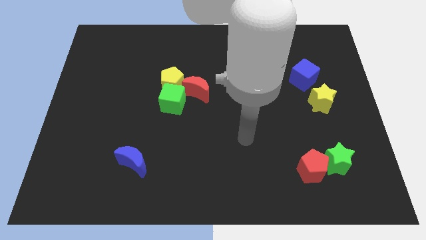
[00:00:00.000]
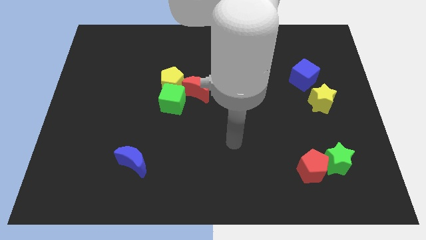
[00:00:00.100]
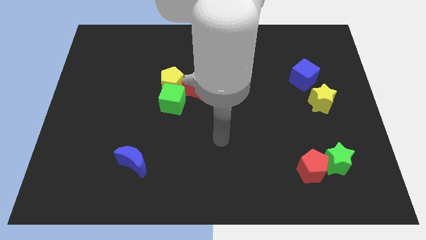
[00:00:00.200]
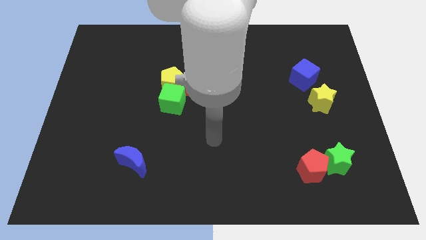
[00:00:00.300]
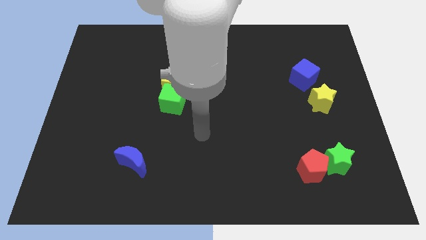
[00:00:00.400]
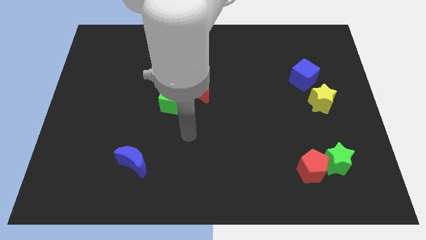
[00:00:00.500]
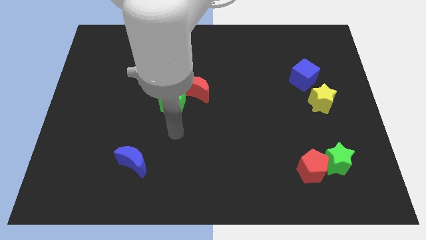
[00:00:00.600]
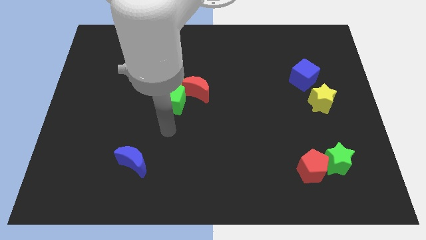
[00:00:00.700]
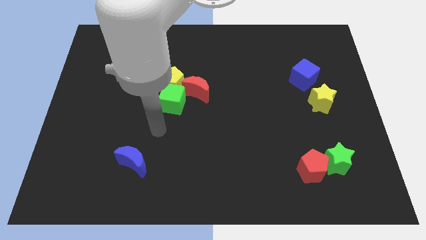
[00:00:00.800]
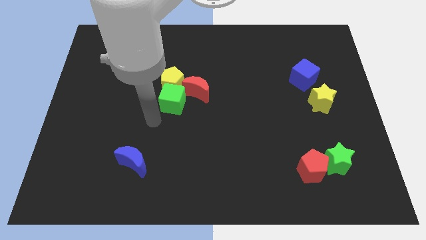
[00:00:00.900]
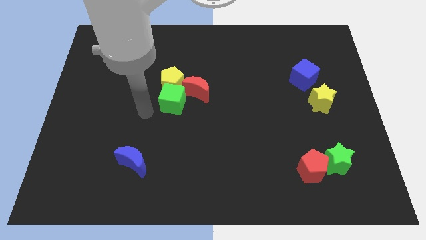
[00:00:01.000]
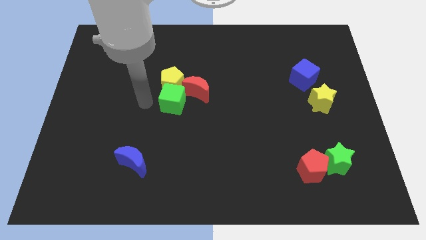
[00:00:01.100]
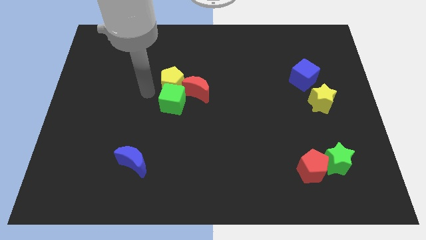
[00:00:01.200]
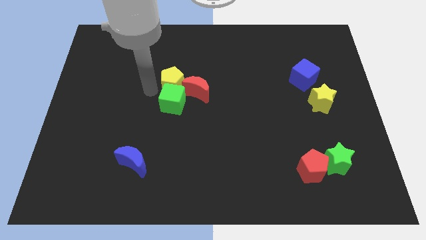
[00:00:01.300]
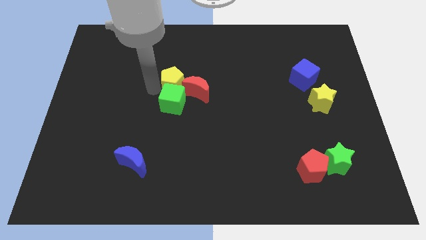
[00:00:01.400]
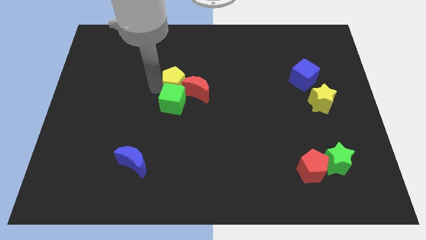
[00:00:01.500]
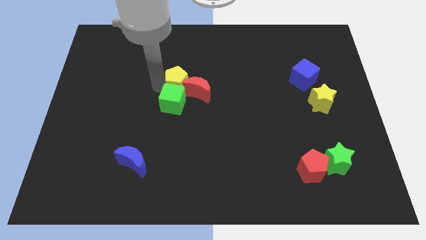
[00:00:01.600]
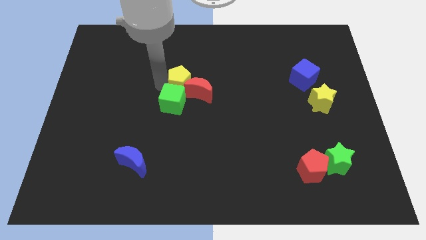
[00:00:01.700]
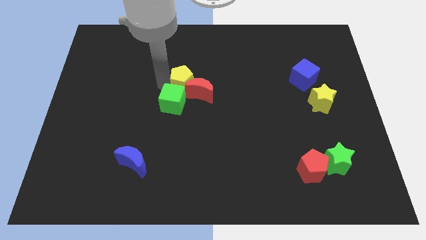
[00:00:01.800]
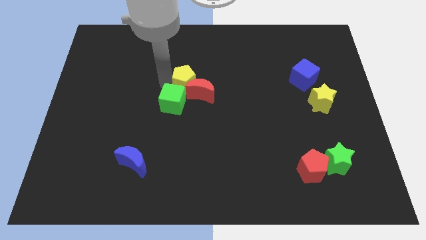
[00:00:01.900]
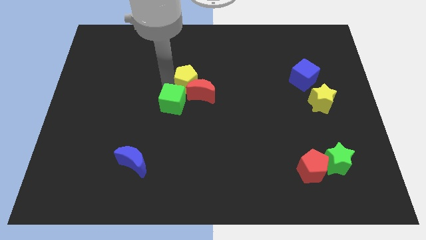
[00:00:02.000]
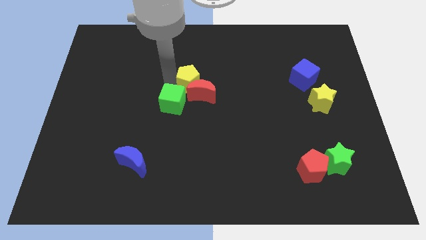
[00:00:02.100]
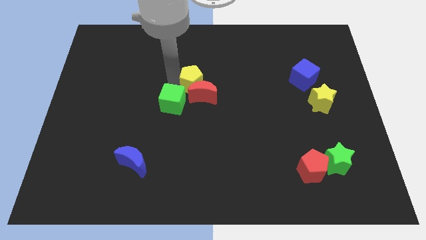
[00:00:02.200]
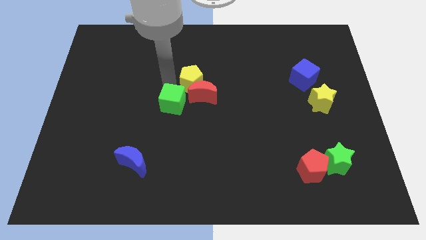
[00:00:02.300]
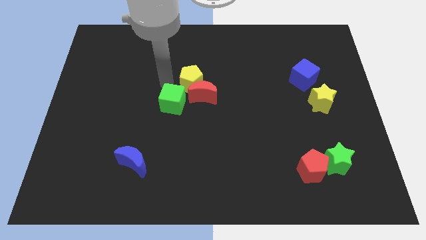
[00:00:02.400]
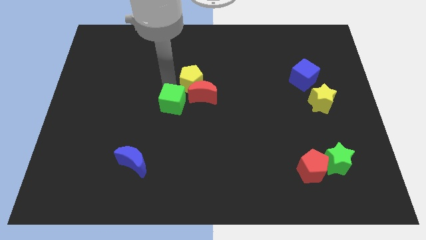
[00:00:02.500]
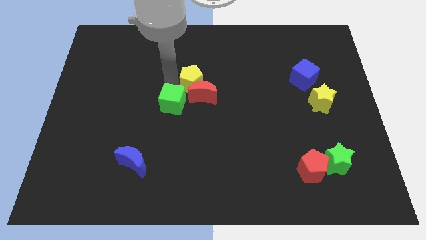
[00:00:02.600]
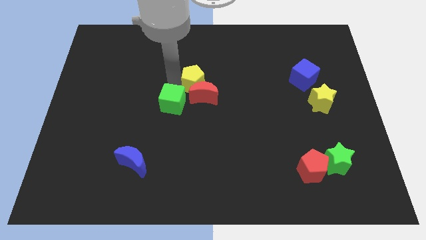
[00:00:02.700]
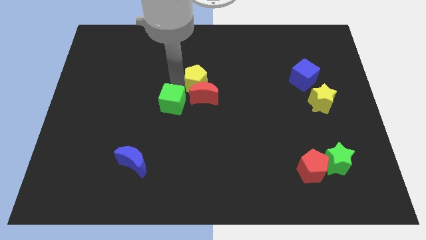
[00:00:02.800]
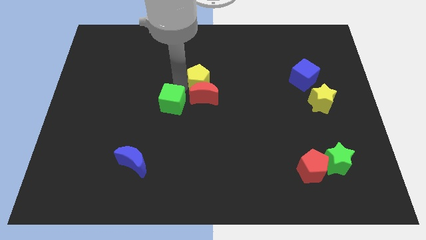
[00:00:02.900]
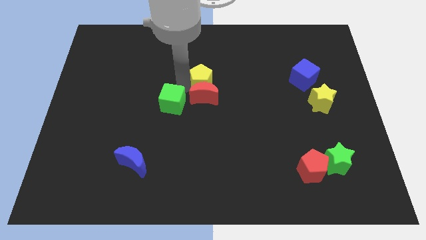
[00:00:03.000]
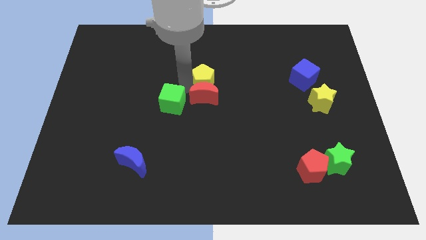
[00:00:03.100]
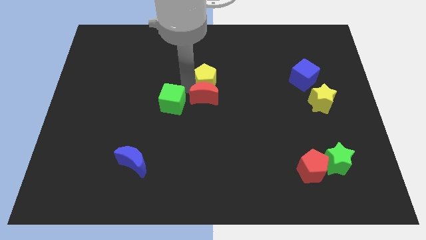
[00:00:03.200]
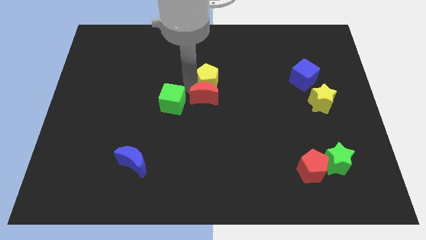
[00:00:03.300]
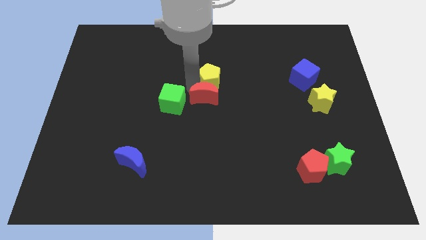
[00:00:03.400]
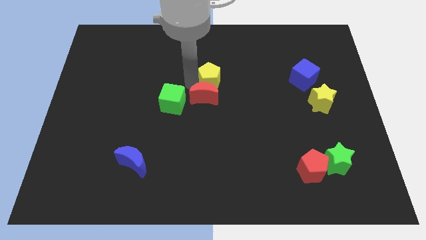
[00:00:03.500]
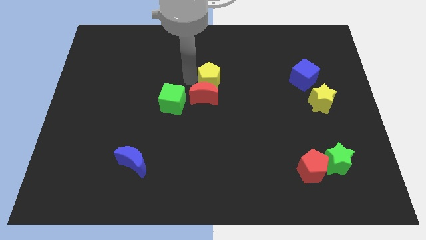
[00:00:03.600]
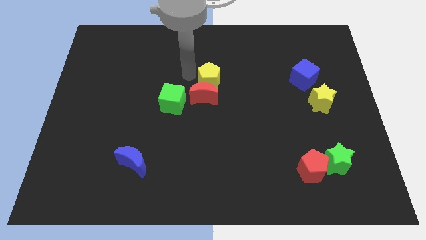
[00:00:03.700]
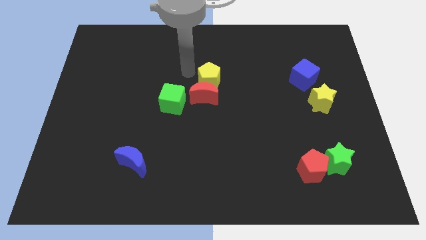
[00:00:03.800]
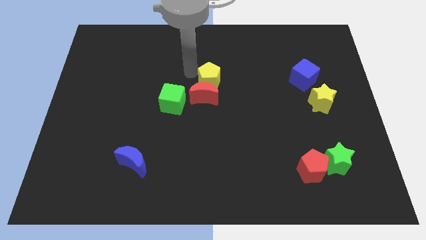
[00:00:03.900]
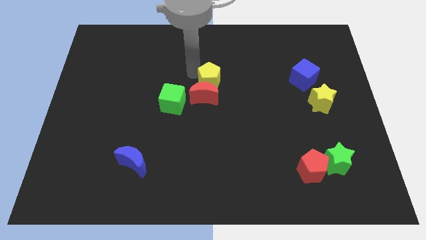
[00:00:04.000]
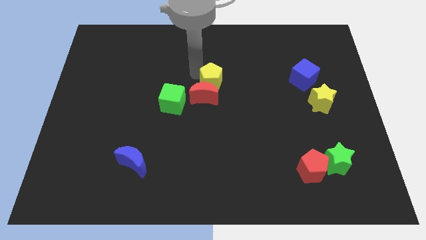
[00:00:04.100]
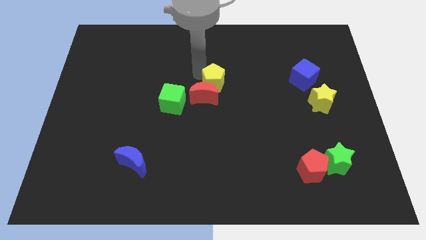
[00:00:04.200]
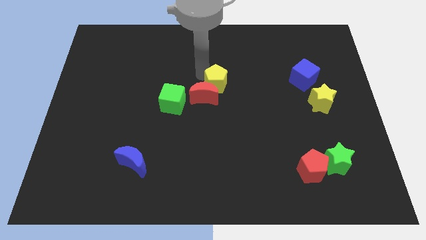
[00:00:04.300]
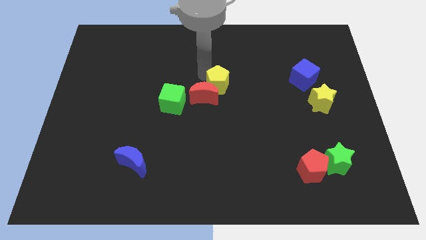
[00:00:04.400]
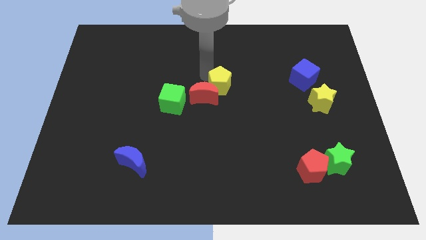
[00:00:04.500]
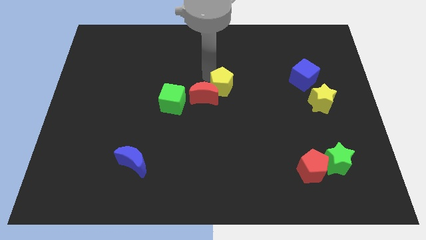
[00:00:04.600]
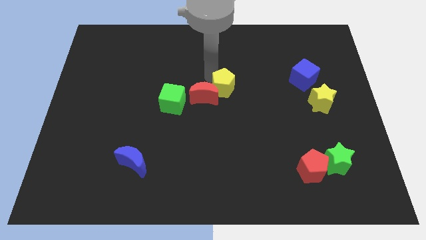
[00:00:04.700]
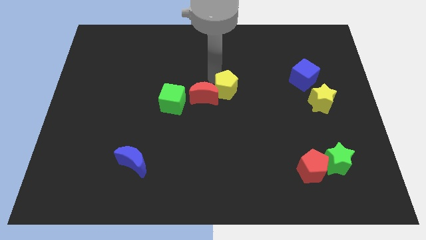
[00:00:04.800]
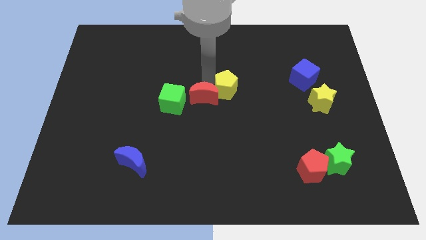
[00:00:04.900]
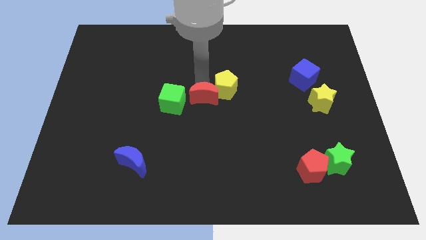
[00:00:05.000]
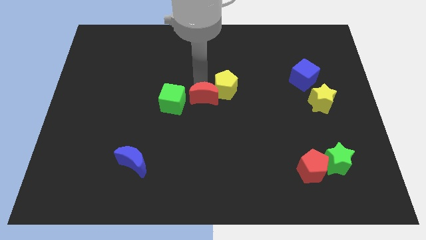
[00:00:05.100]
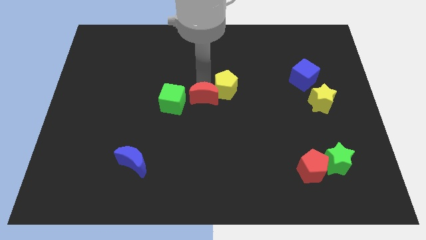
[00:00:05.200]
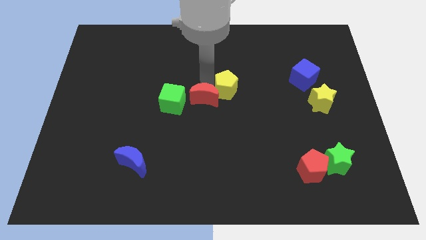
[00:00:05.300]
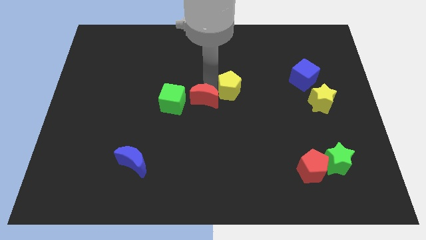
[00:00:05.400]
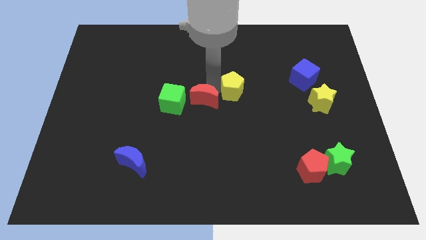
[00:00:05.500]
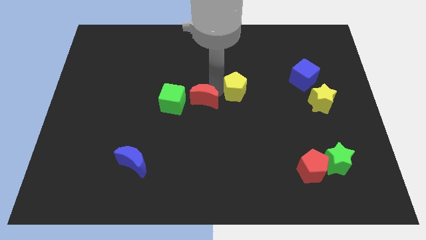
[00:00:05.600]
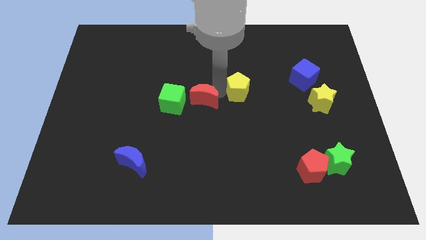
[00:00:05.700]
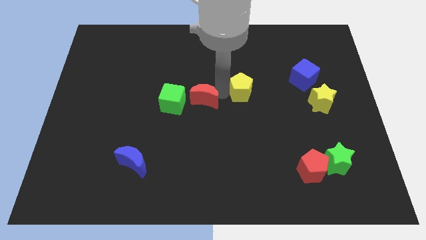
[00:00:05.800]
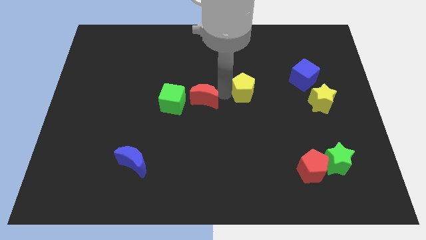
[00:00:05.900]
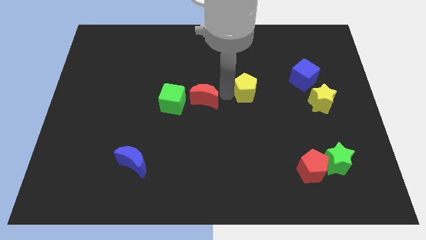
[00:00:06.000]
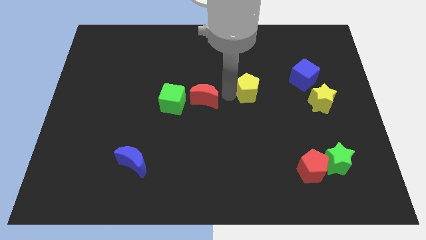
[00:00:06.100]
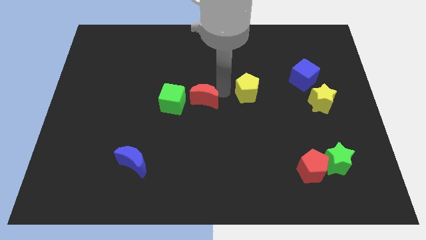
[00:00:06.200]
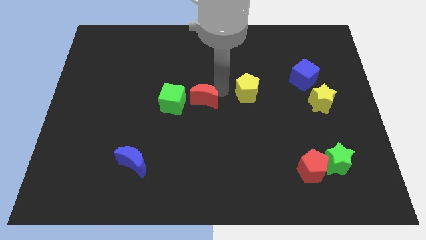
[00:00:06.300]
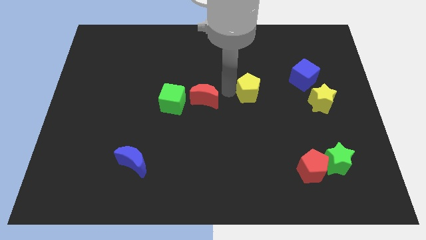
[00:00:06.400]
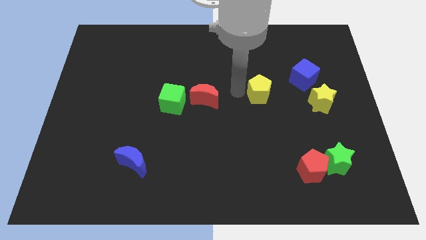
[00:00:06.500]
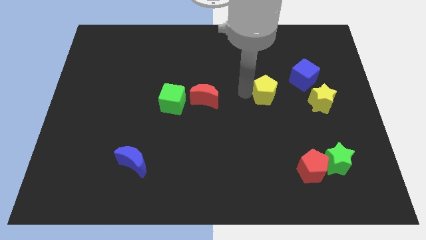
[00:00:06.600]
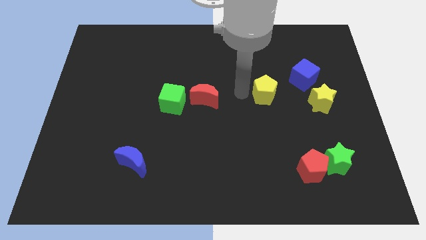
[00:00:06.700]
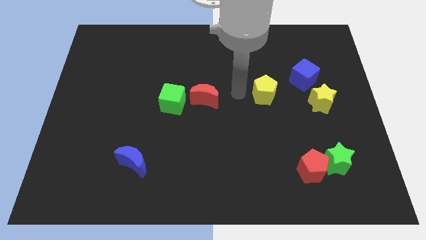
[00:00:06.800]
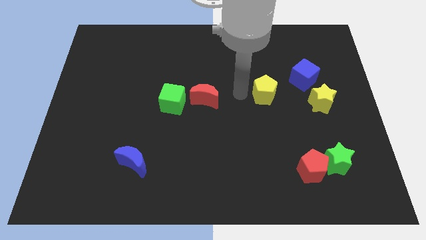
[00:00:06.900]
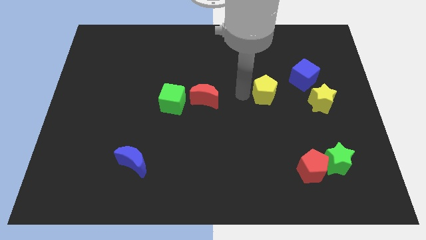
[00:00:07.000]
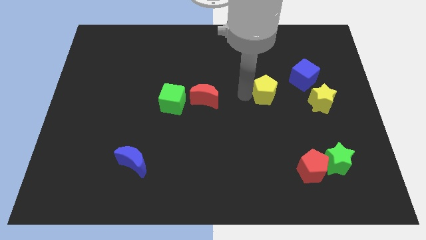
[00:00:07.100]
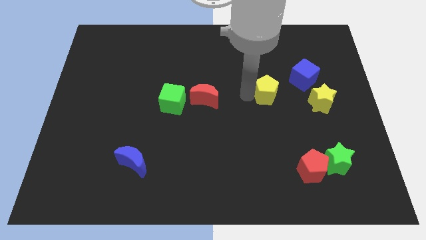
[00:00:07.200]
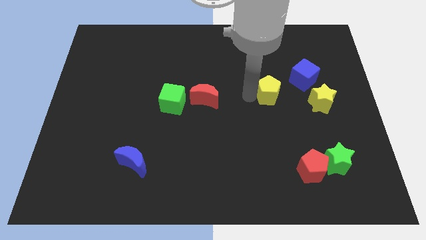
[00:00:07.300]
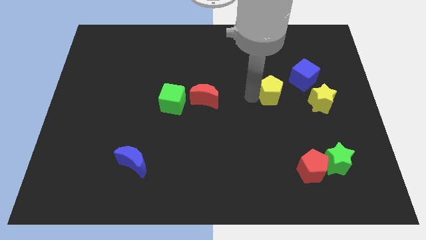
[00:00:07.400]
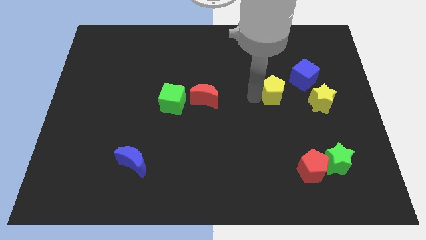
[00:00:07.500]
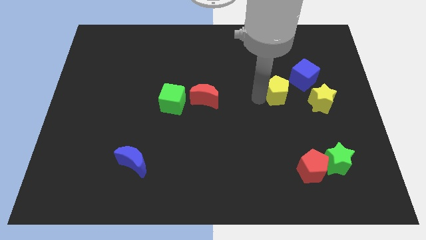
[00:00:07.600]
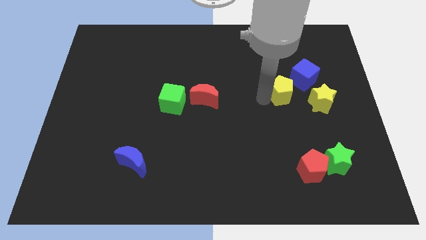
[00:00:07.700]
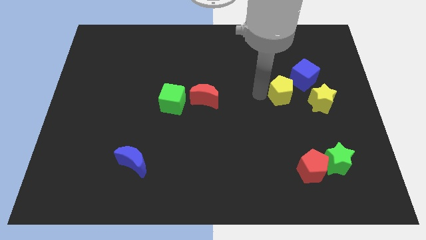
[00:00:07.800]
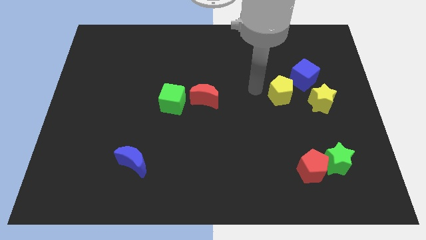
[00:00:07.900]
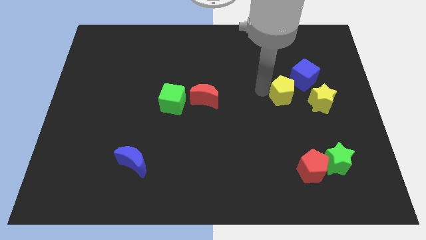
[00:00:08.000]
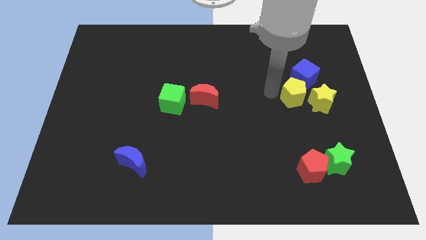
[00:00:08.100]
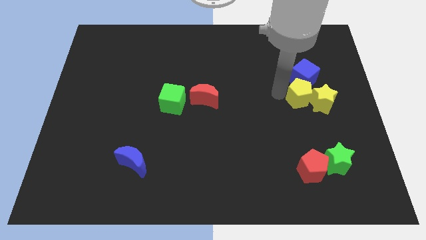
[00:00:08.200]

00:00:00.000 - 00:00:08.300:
put the yellow pentagon to the yellow star
